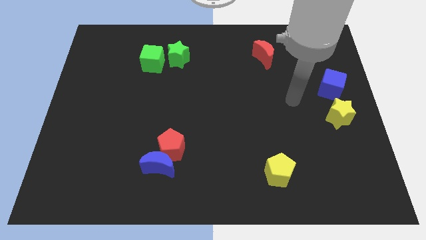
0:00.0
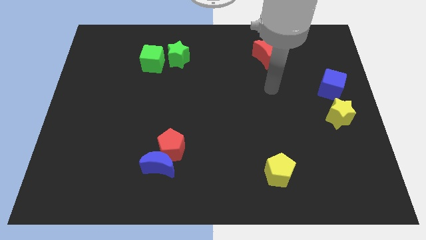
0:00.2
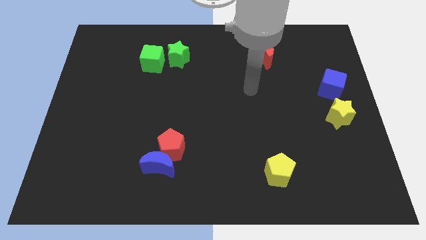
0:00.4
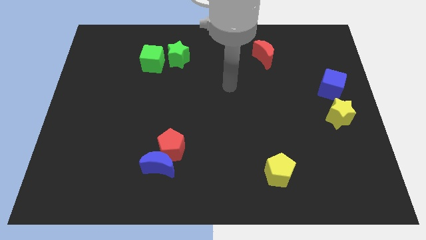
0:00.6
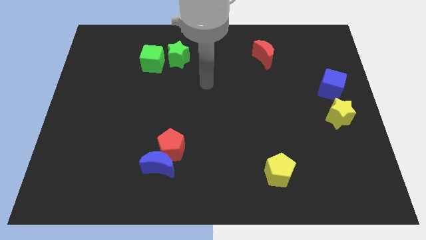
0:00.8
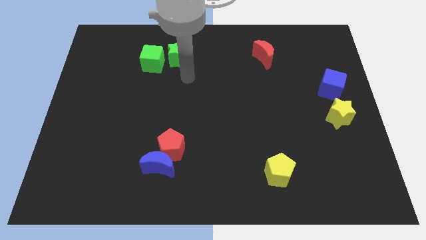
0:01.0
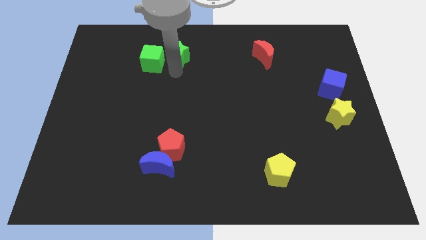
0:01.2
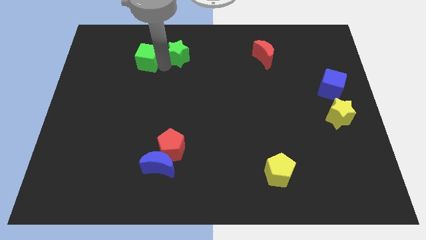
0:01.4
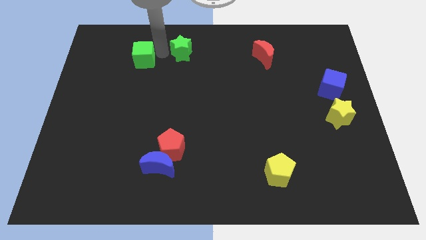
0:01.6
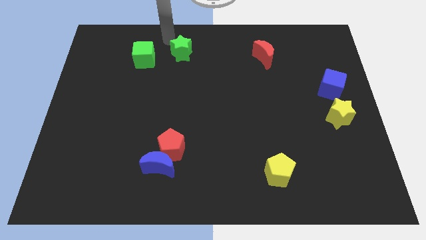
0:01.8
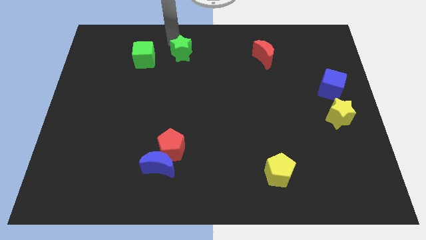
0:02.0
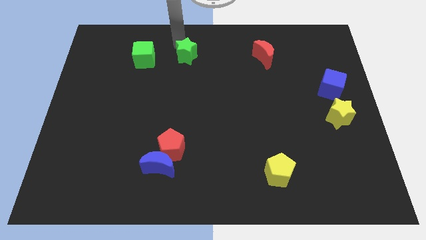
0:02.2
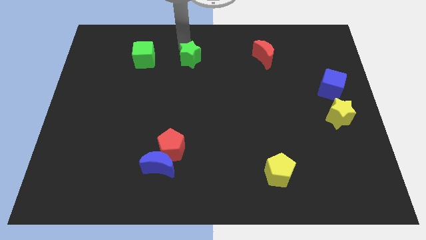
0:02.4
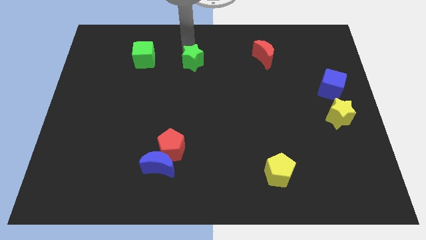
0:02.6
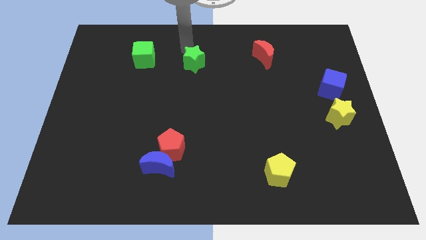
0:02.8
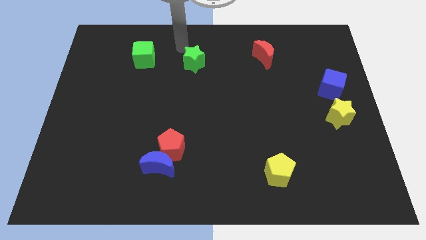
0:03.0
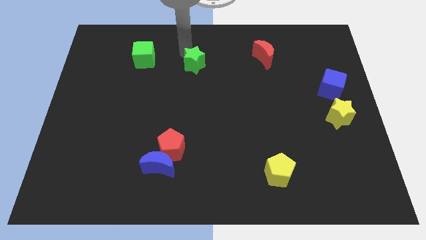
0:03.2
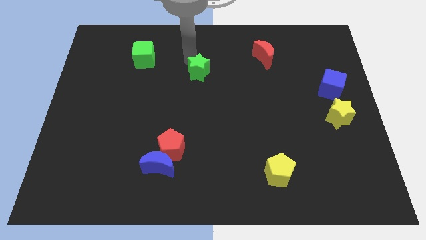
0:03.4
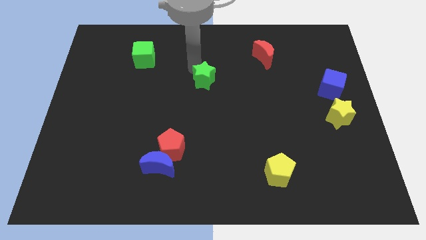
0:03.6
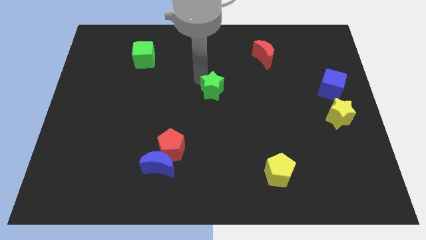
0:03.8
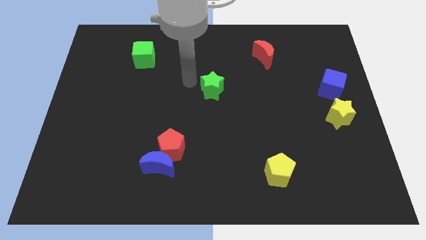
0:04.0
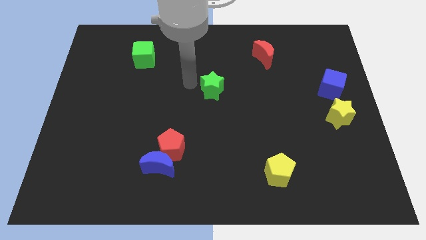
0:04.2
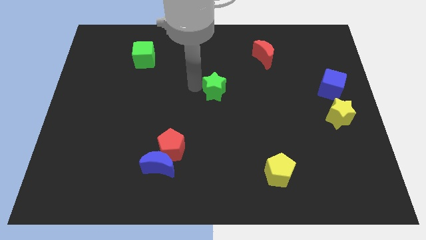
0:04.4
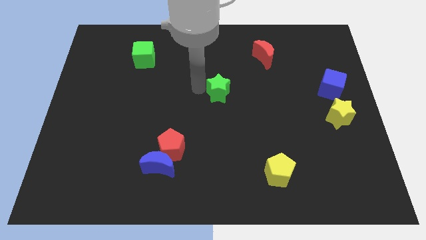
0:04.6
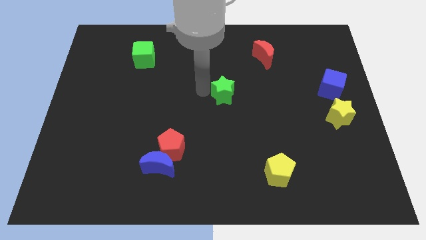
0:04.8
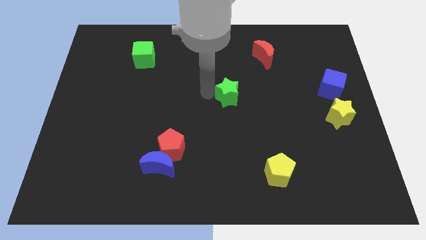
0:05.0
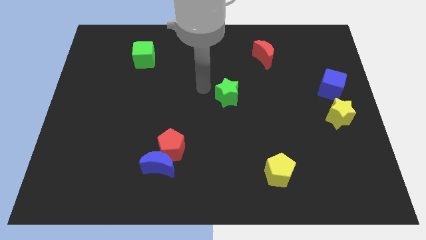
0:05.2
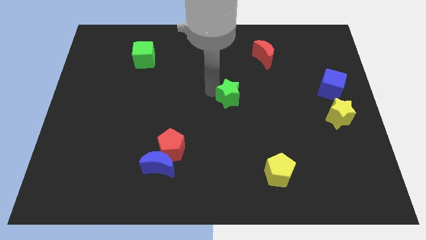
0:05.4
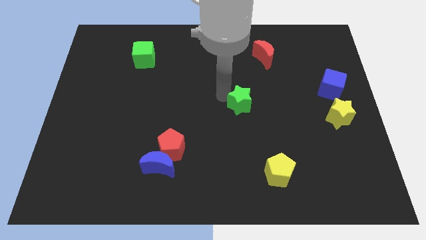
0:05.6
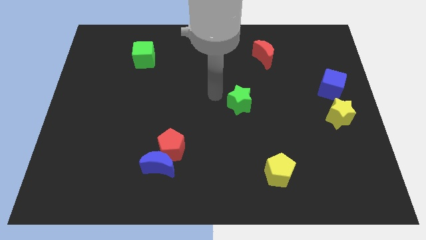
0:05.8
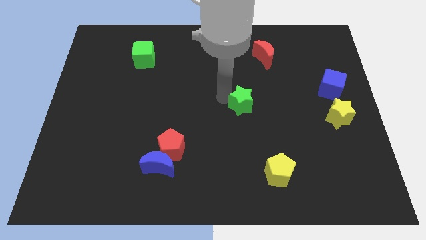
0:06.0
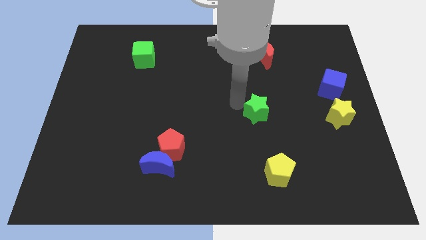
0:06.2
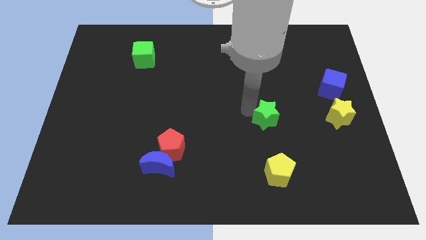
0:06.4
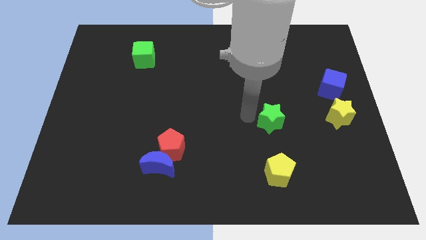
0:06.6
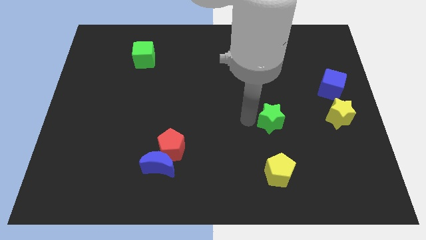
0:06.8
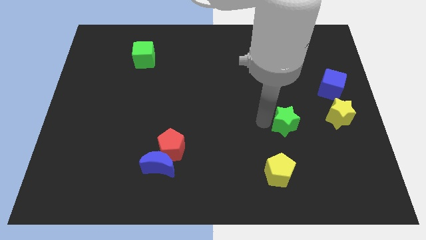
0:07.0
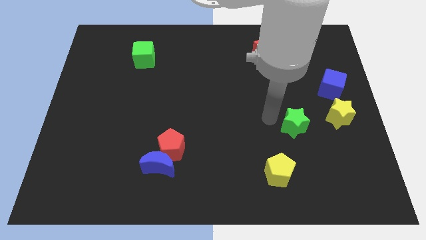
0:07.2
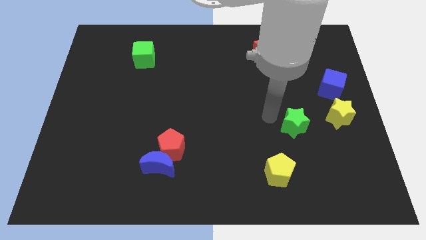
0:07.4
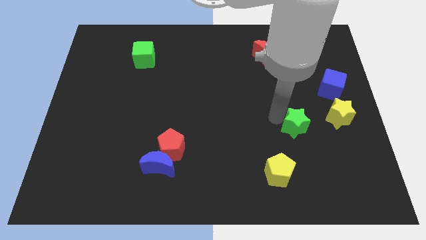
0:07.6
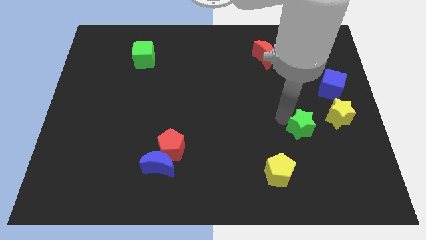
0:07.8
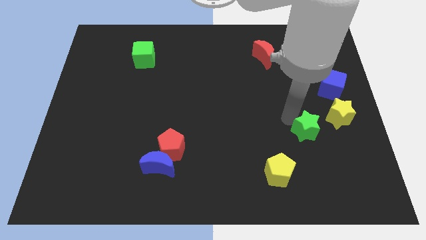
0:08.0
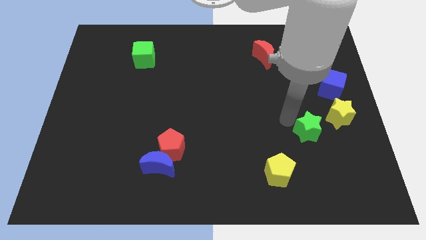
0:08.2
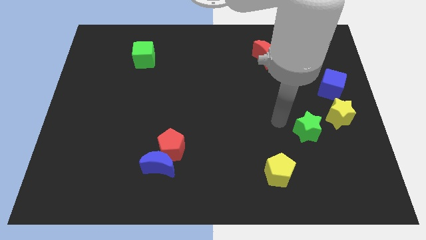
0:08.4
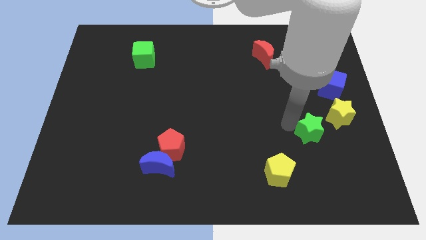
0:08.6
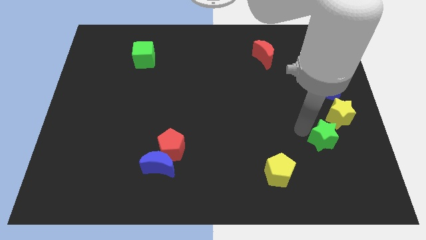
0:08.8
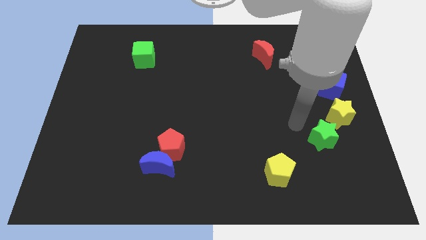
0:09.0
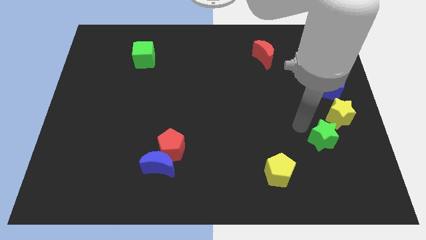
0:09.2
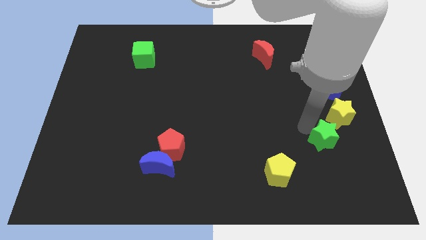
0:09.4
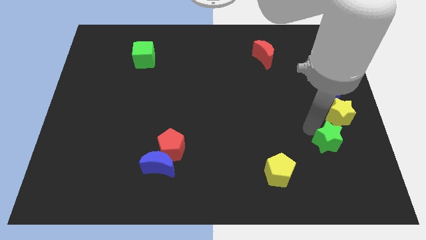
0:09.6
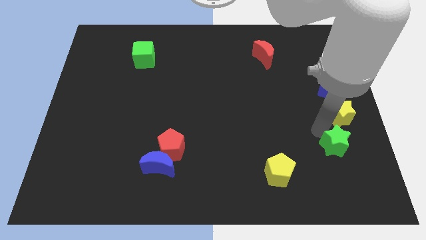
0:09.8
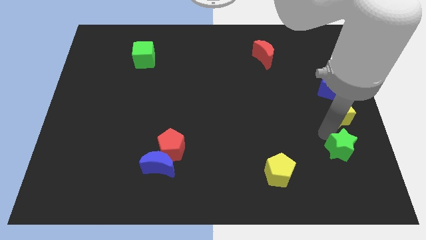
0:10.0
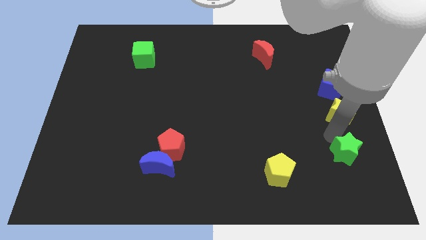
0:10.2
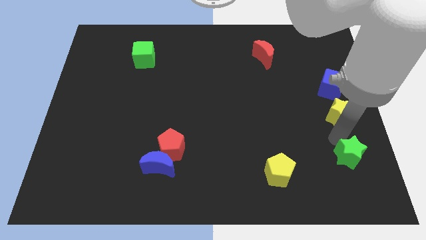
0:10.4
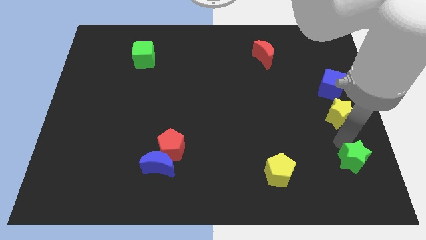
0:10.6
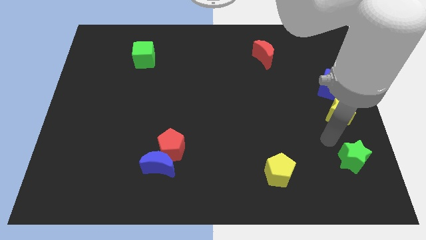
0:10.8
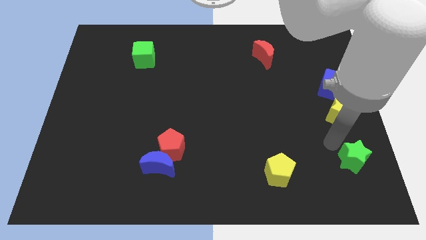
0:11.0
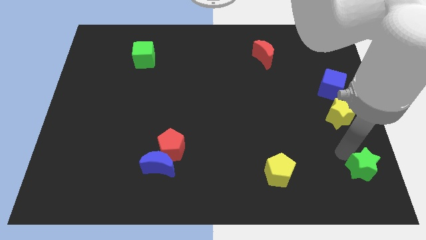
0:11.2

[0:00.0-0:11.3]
put the green star to the bottom right of the board
